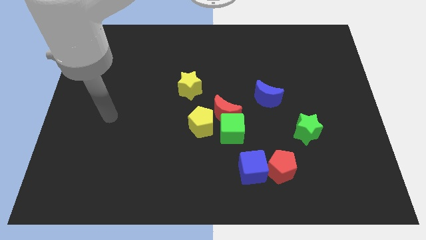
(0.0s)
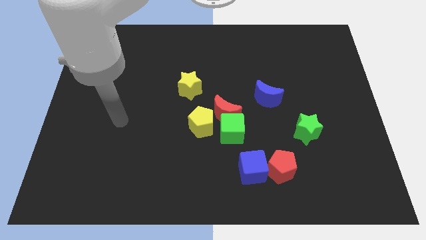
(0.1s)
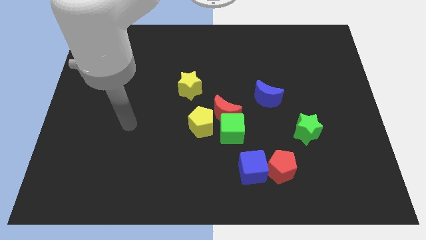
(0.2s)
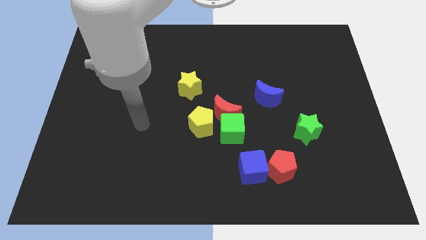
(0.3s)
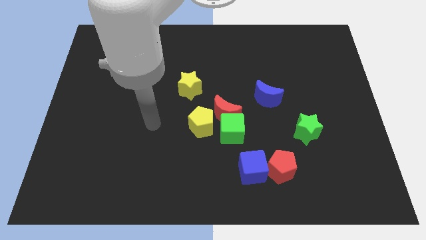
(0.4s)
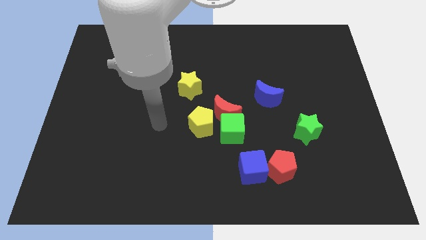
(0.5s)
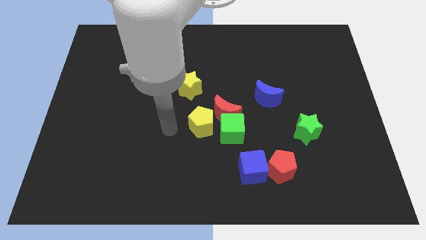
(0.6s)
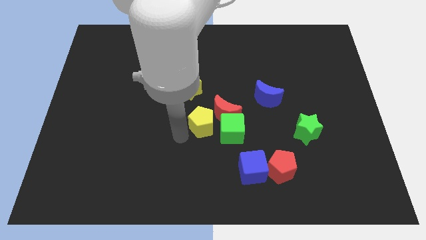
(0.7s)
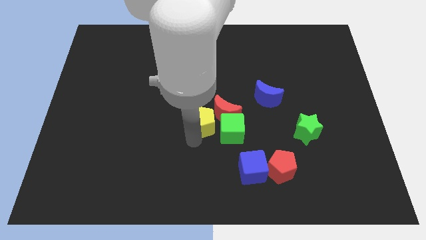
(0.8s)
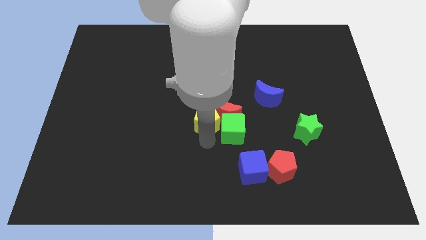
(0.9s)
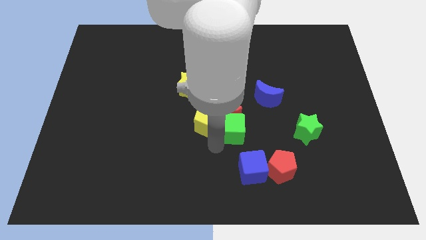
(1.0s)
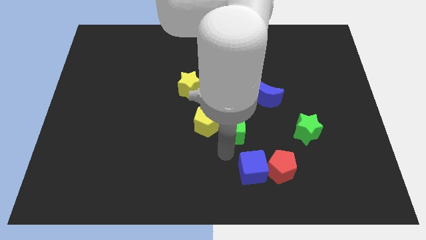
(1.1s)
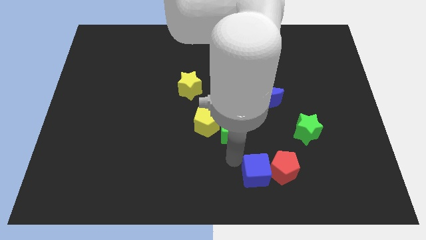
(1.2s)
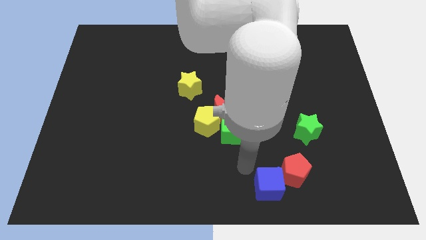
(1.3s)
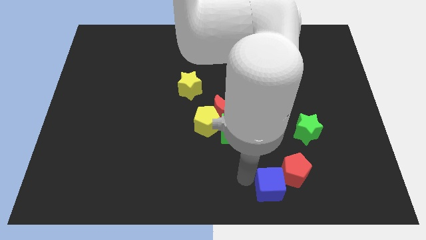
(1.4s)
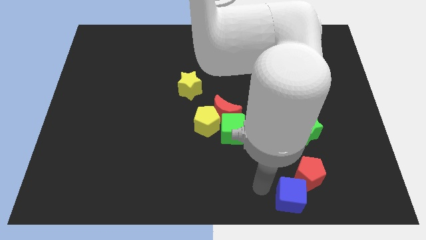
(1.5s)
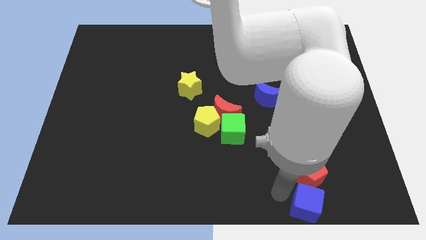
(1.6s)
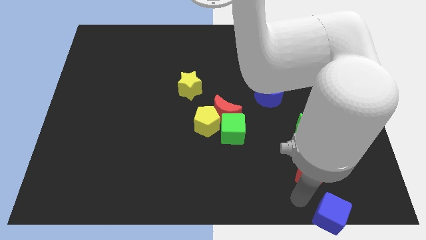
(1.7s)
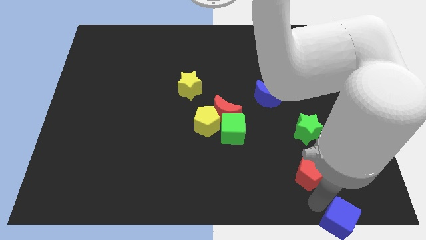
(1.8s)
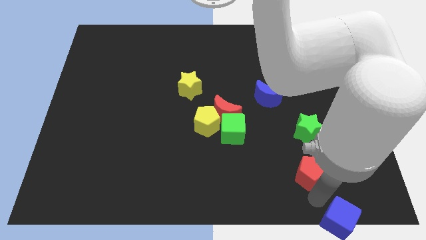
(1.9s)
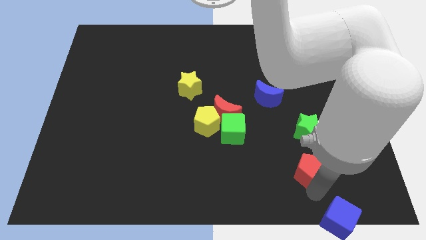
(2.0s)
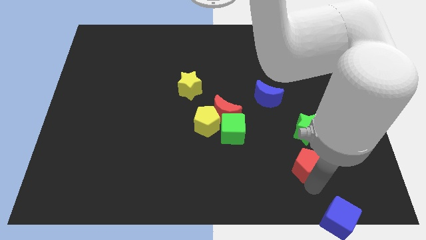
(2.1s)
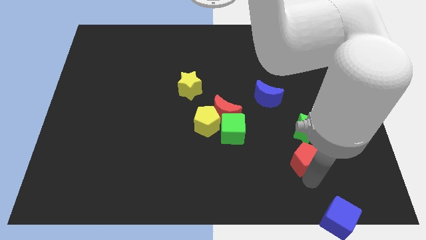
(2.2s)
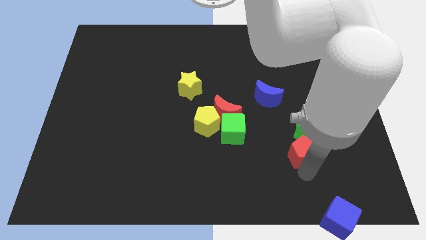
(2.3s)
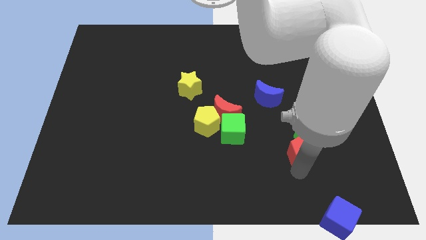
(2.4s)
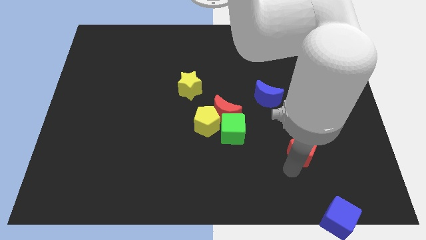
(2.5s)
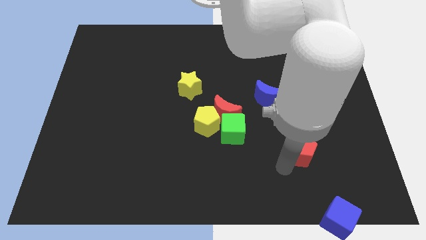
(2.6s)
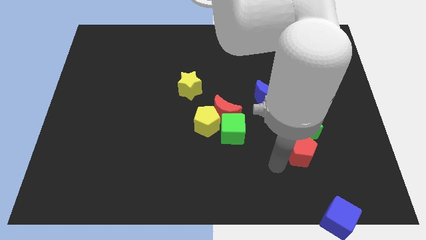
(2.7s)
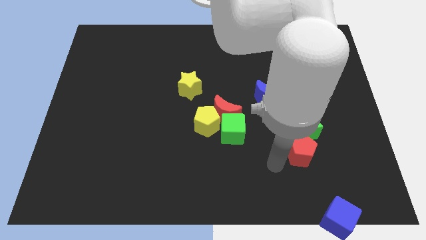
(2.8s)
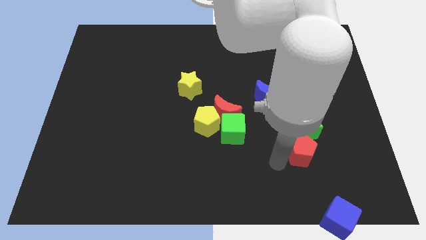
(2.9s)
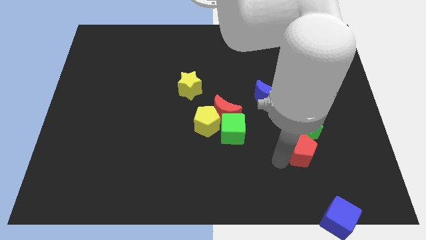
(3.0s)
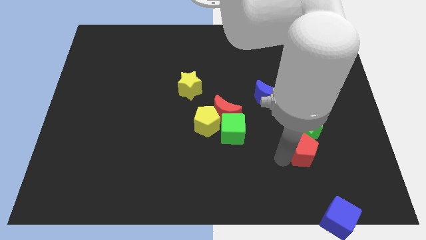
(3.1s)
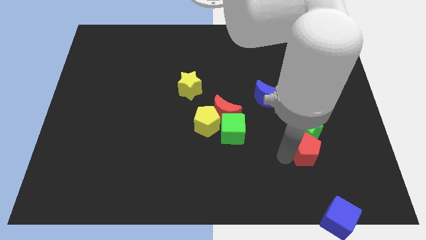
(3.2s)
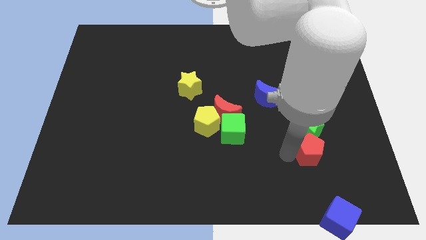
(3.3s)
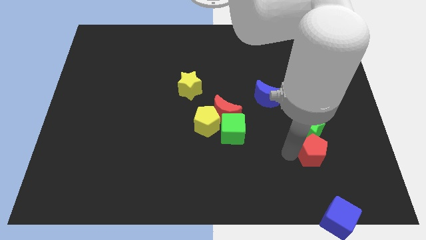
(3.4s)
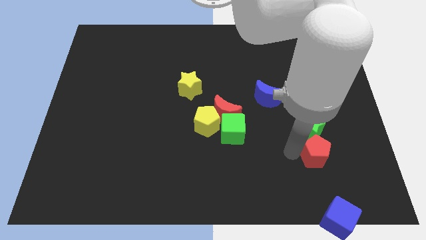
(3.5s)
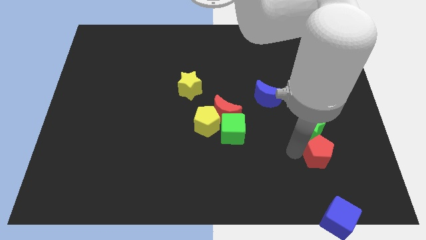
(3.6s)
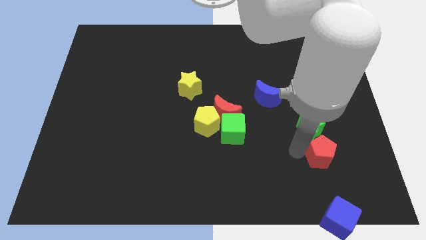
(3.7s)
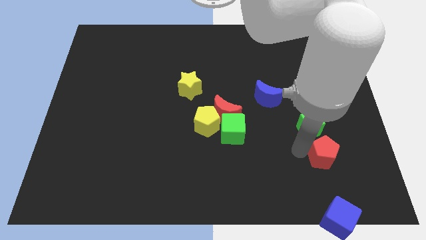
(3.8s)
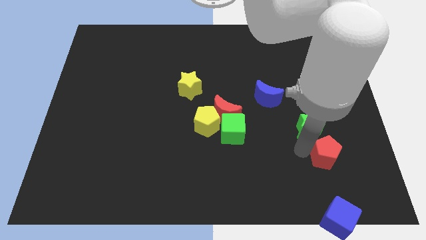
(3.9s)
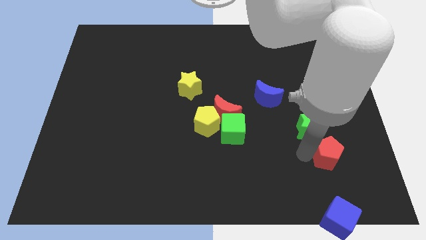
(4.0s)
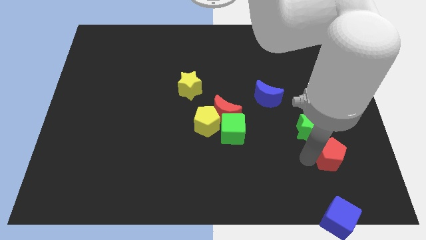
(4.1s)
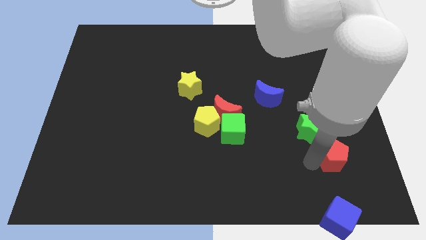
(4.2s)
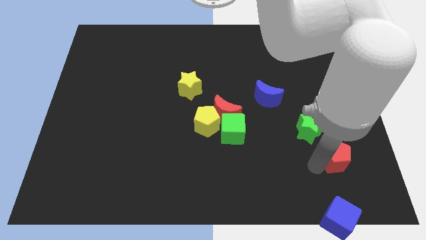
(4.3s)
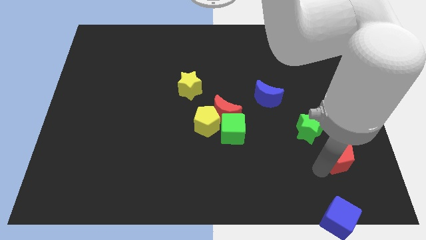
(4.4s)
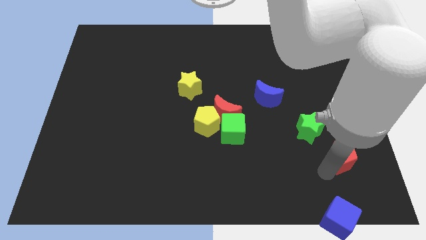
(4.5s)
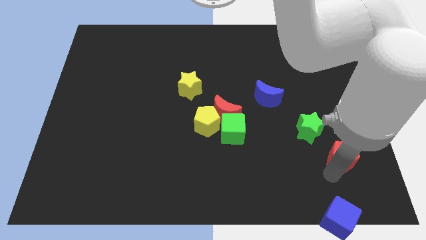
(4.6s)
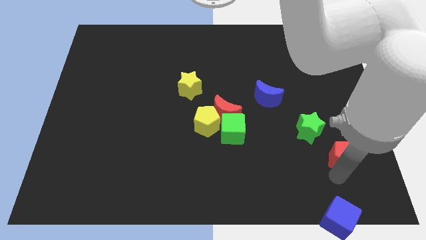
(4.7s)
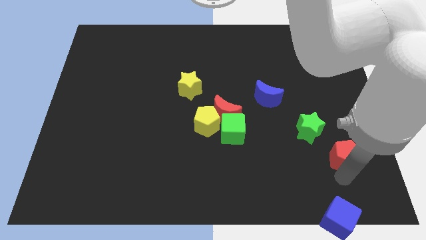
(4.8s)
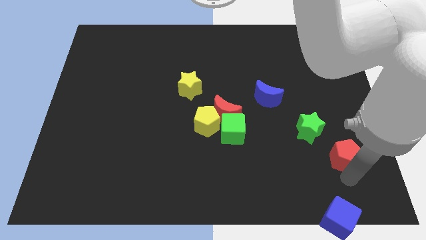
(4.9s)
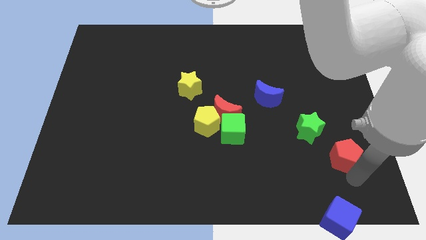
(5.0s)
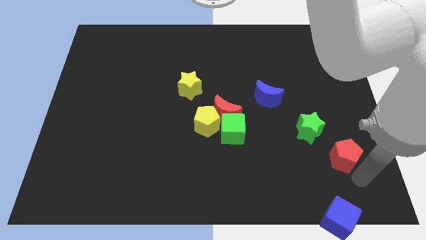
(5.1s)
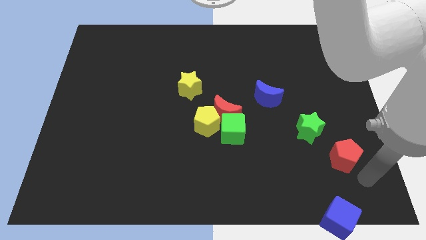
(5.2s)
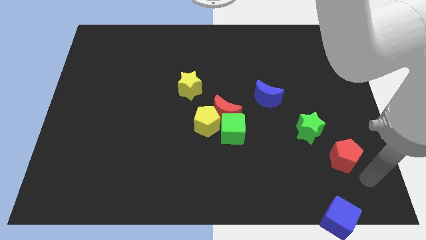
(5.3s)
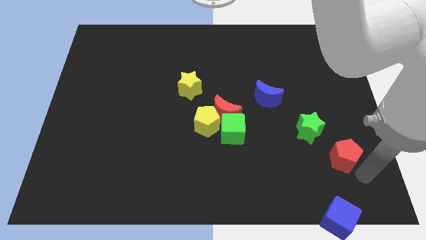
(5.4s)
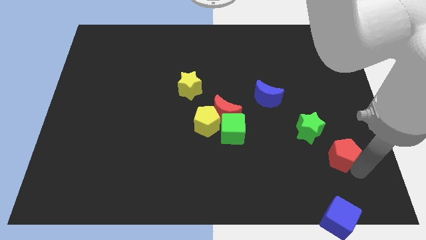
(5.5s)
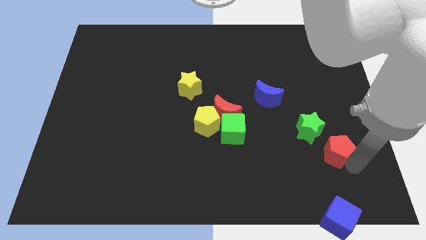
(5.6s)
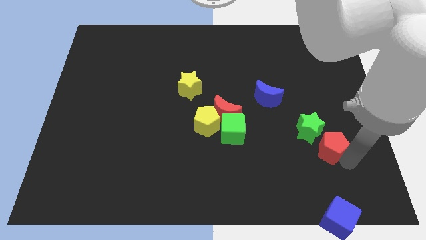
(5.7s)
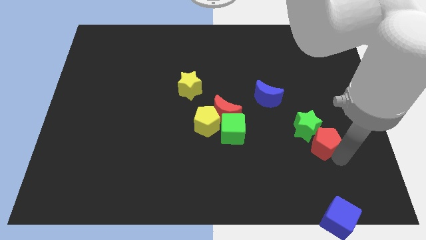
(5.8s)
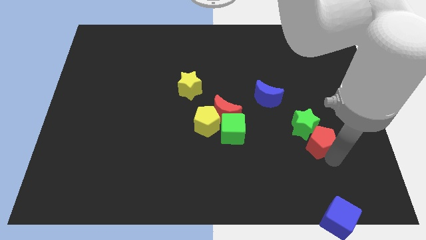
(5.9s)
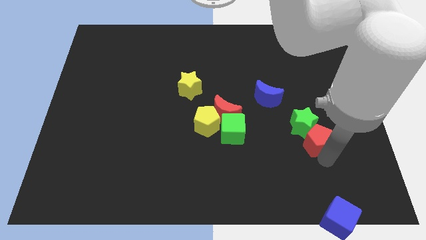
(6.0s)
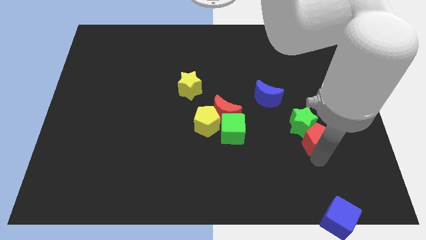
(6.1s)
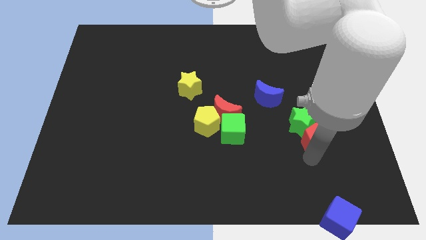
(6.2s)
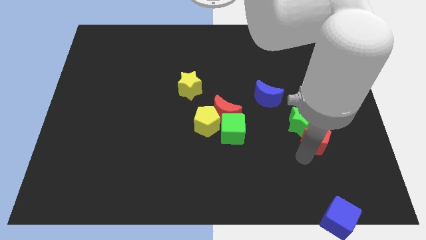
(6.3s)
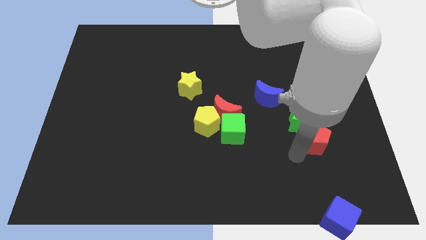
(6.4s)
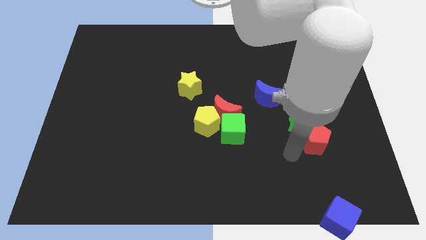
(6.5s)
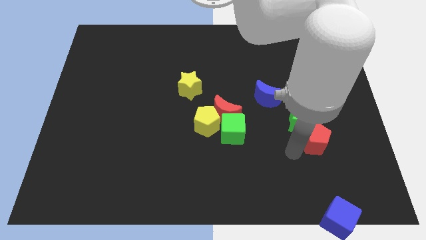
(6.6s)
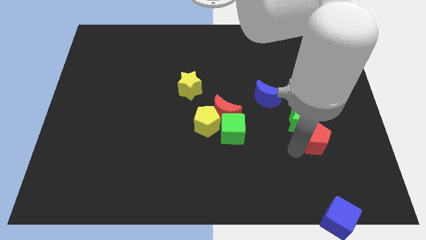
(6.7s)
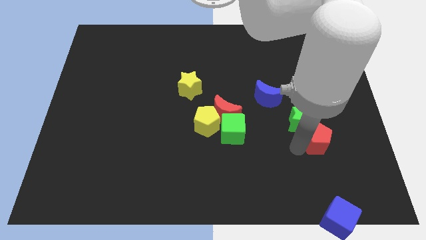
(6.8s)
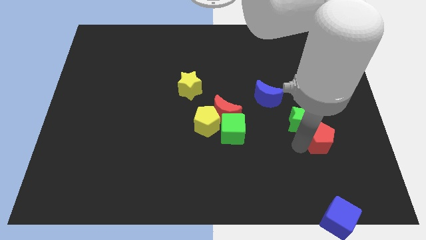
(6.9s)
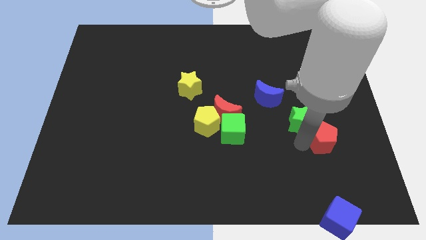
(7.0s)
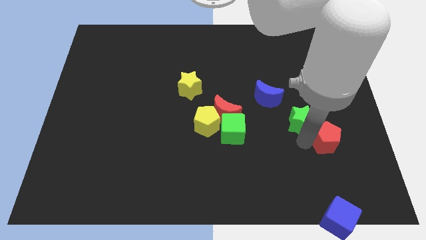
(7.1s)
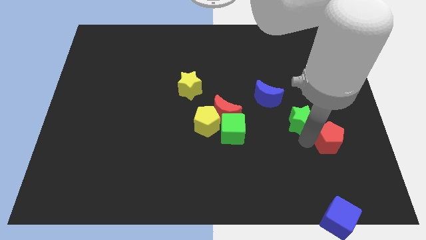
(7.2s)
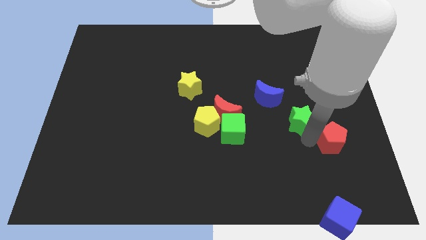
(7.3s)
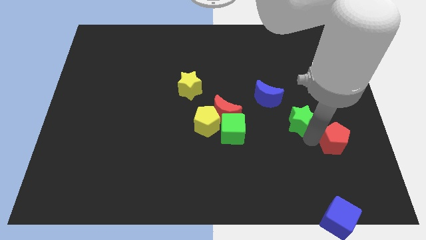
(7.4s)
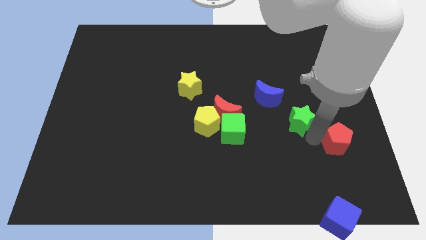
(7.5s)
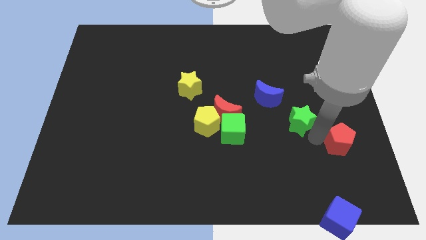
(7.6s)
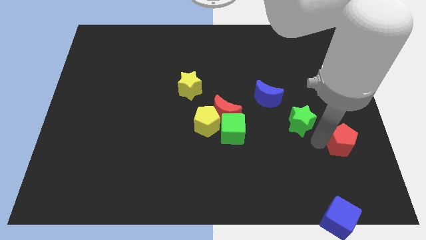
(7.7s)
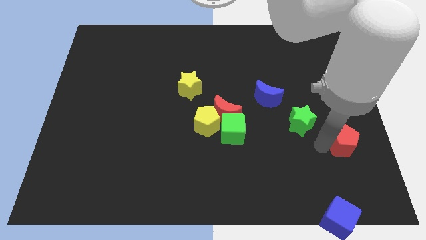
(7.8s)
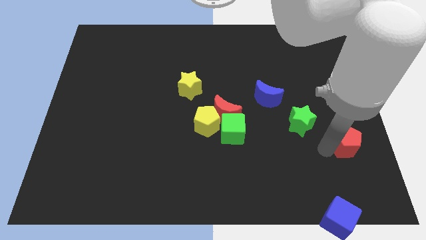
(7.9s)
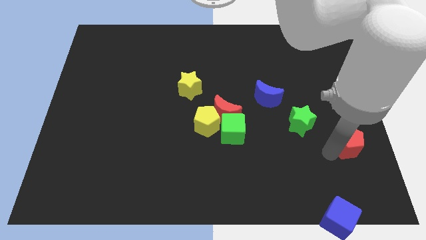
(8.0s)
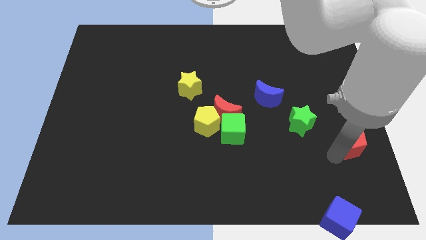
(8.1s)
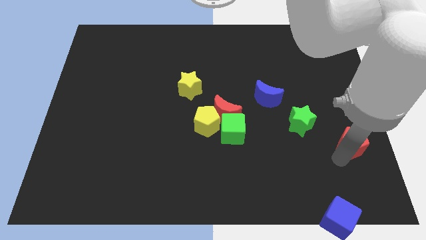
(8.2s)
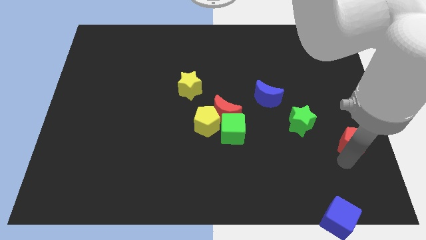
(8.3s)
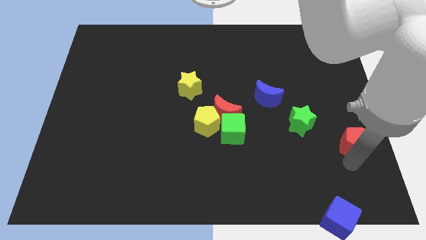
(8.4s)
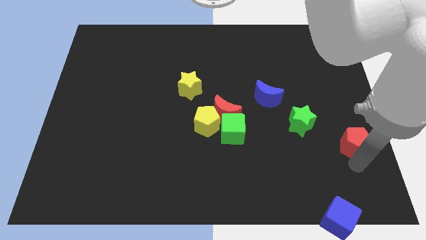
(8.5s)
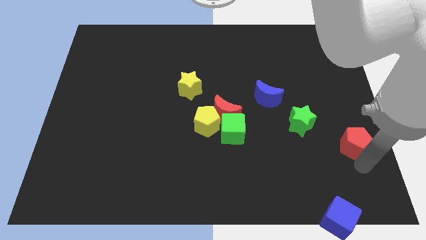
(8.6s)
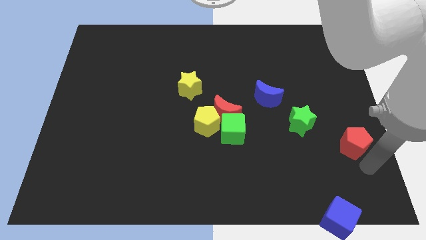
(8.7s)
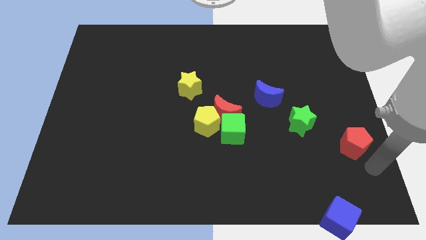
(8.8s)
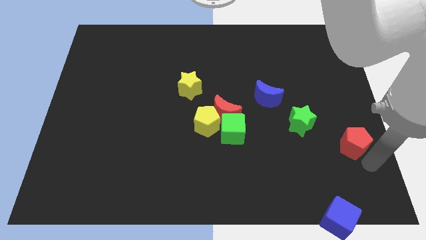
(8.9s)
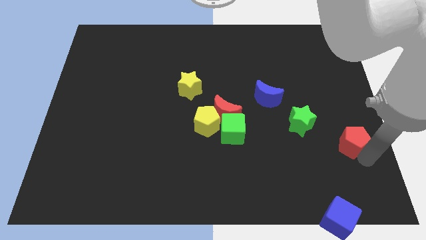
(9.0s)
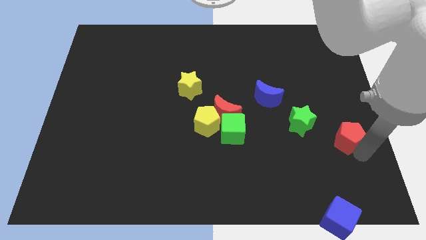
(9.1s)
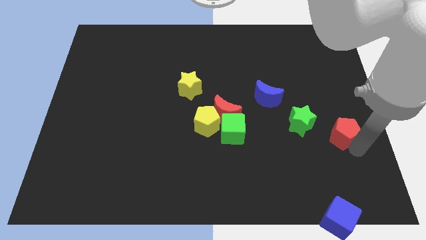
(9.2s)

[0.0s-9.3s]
move the red pentagon to the right side of the board
